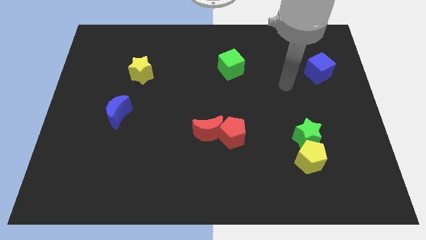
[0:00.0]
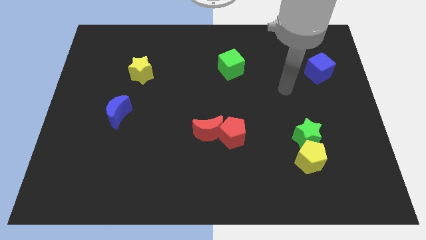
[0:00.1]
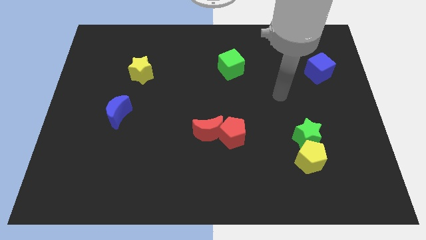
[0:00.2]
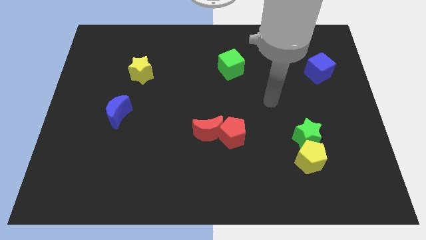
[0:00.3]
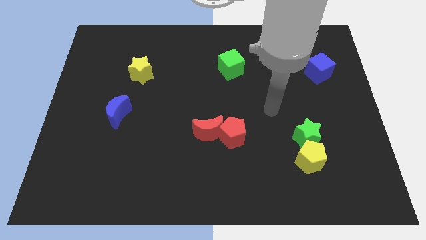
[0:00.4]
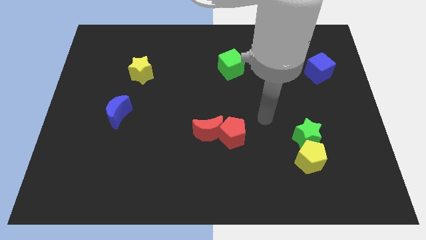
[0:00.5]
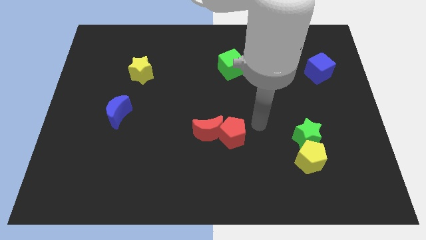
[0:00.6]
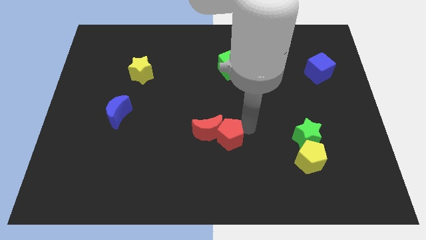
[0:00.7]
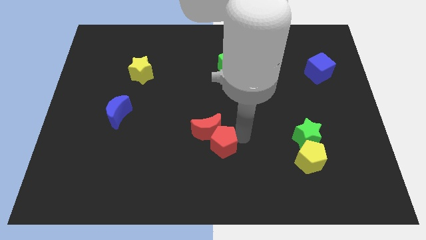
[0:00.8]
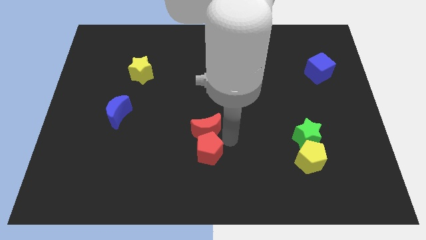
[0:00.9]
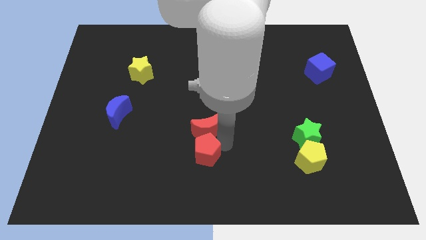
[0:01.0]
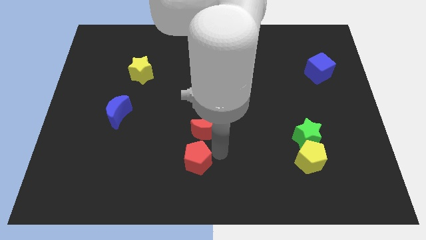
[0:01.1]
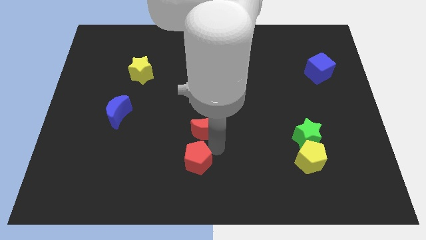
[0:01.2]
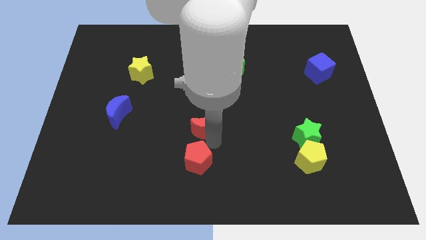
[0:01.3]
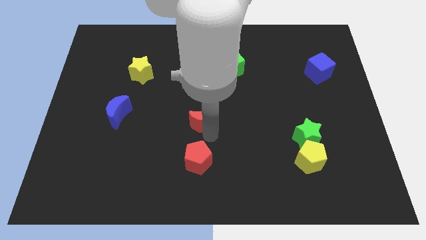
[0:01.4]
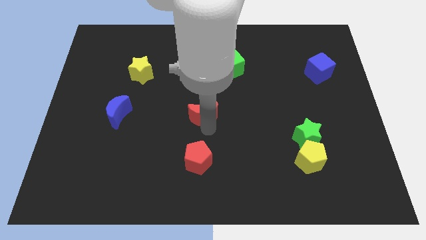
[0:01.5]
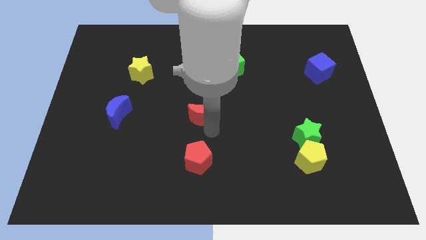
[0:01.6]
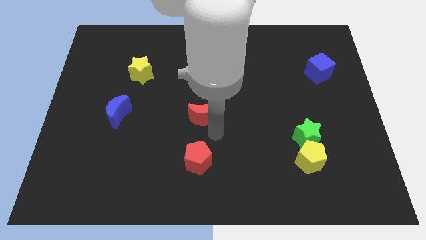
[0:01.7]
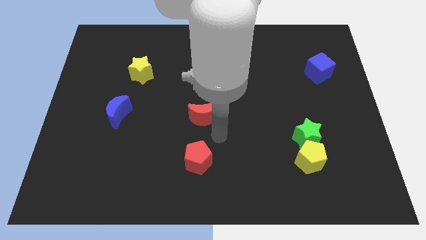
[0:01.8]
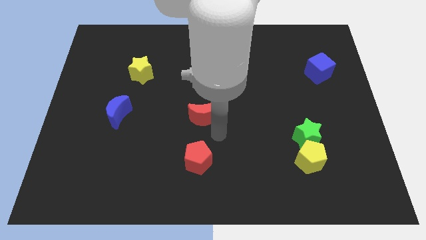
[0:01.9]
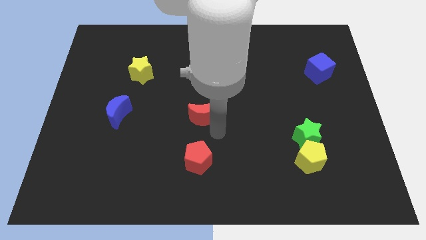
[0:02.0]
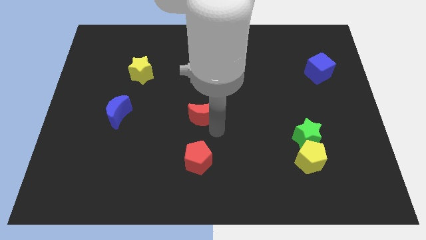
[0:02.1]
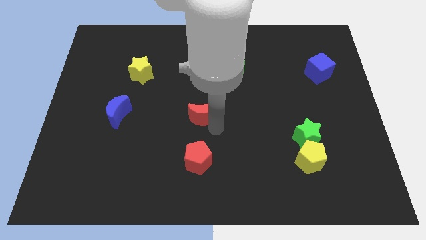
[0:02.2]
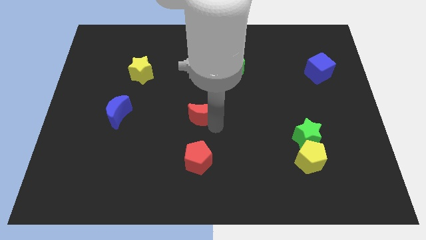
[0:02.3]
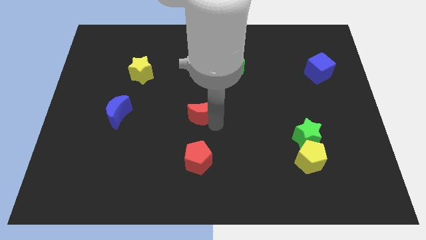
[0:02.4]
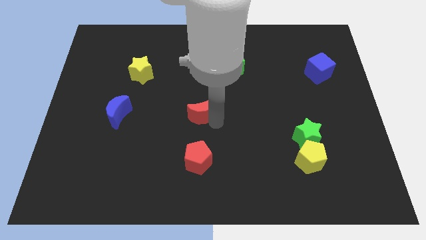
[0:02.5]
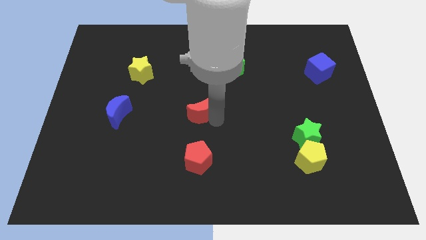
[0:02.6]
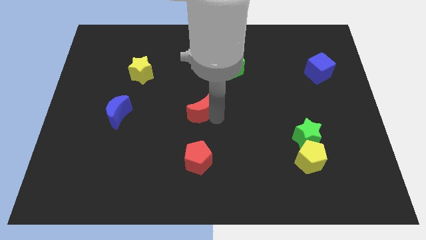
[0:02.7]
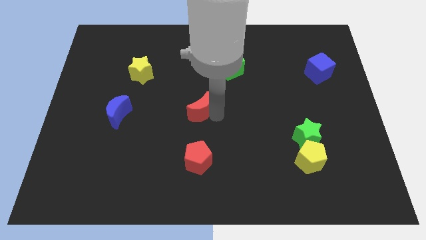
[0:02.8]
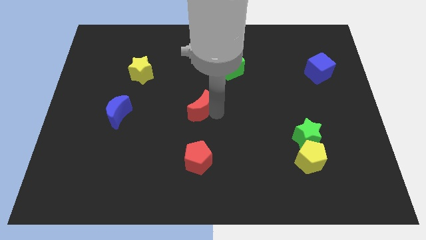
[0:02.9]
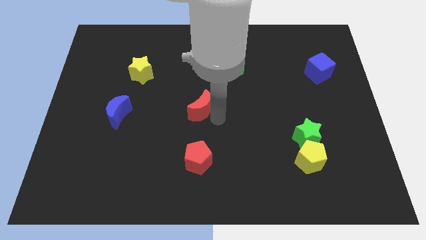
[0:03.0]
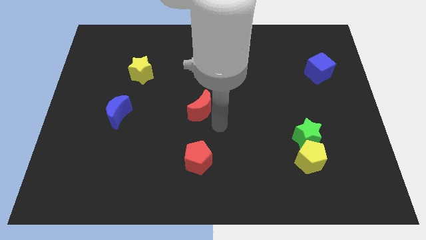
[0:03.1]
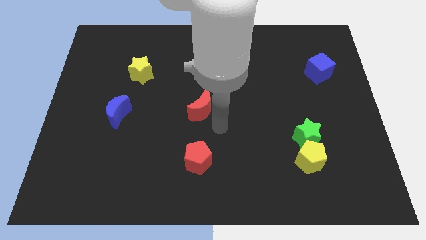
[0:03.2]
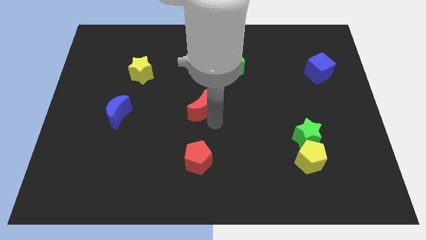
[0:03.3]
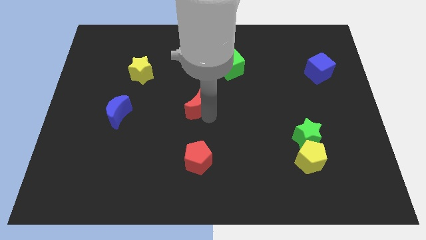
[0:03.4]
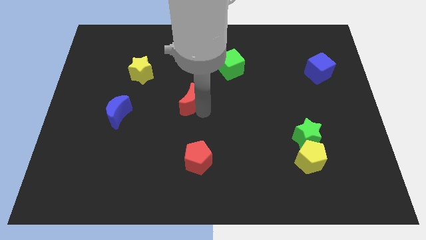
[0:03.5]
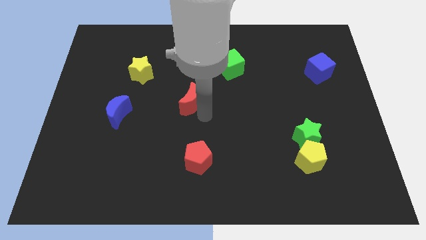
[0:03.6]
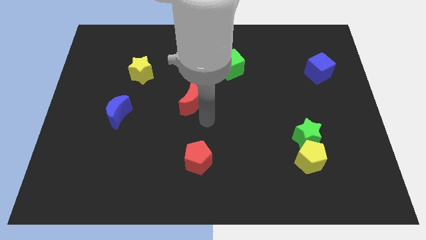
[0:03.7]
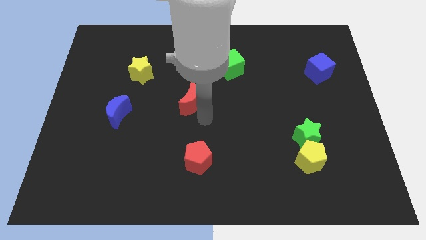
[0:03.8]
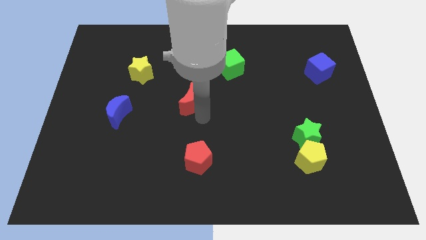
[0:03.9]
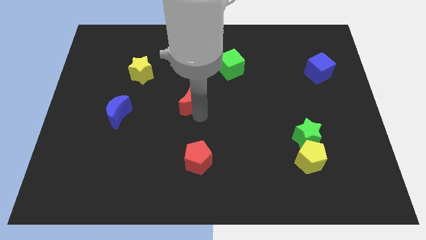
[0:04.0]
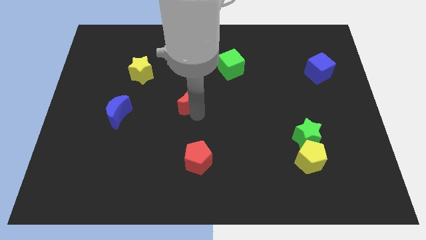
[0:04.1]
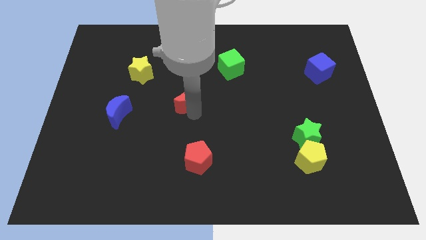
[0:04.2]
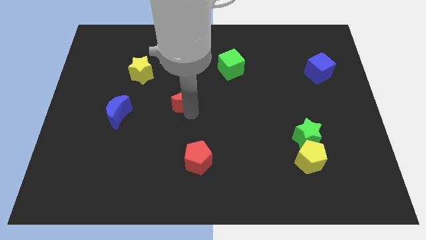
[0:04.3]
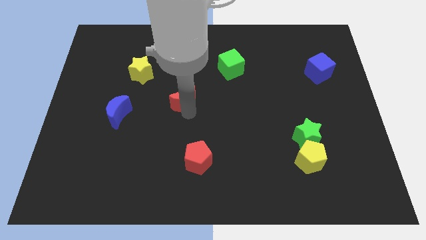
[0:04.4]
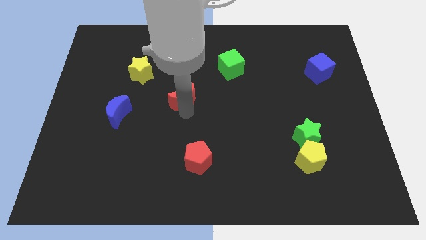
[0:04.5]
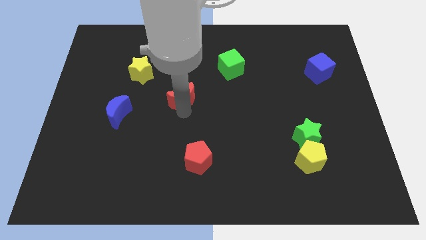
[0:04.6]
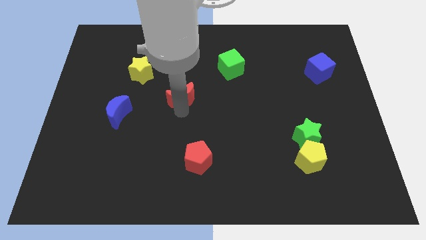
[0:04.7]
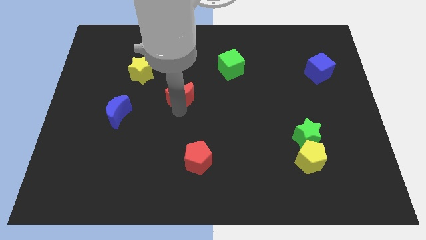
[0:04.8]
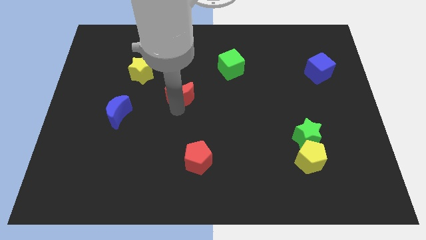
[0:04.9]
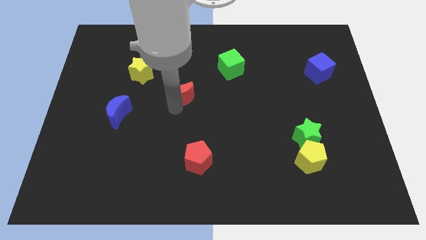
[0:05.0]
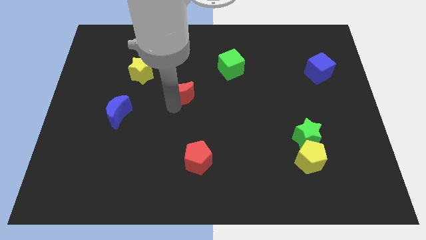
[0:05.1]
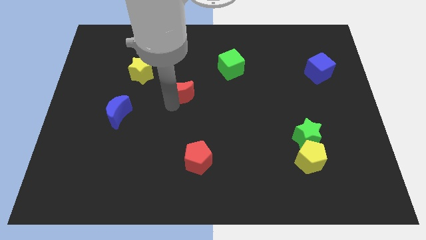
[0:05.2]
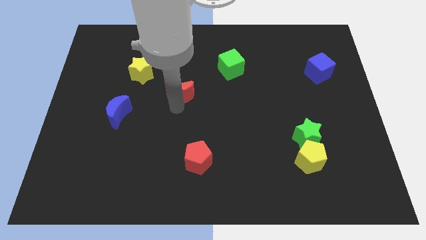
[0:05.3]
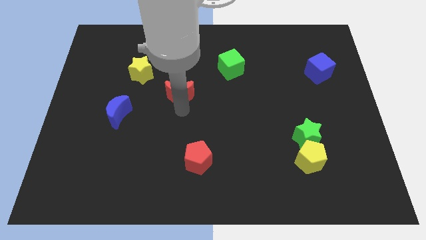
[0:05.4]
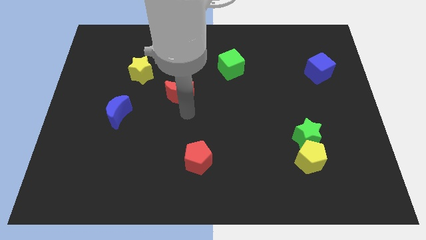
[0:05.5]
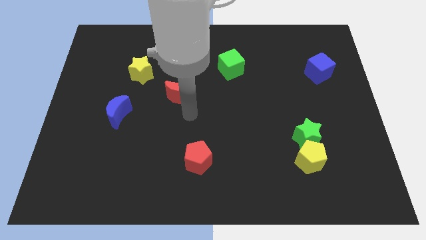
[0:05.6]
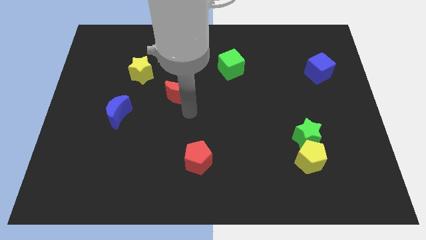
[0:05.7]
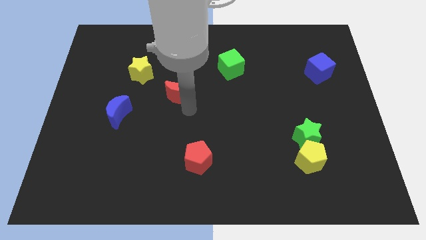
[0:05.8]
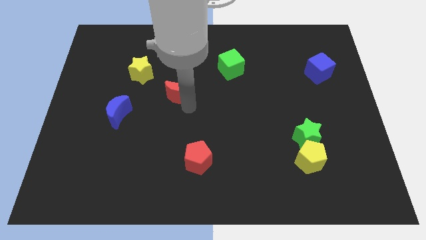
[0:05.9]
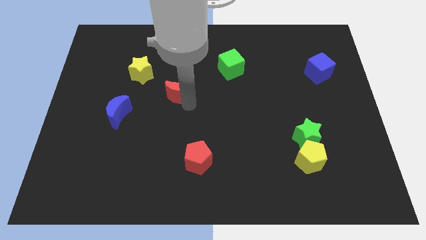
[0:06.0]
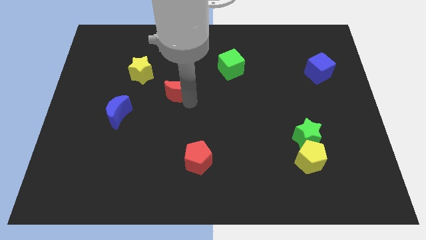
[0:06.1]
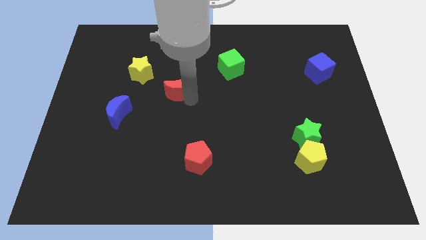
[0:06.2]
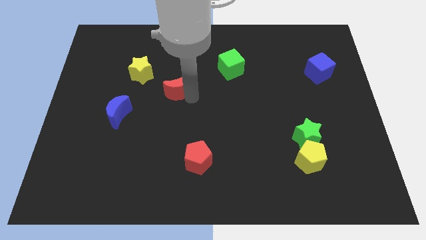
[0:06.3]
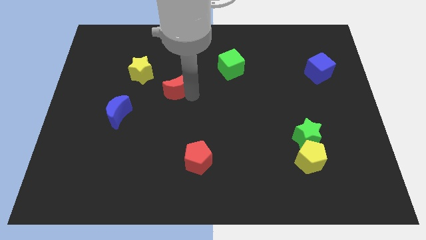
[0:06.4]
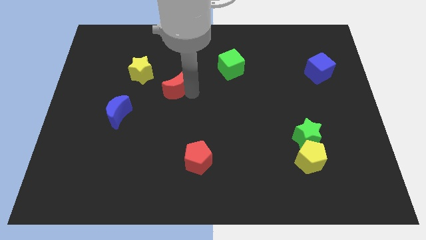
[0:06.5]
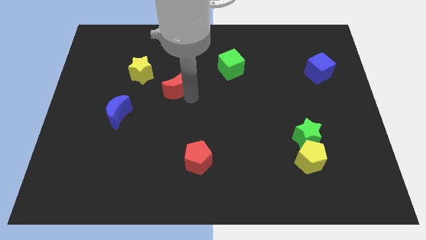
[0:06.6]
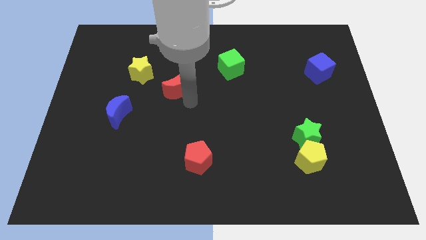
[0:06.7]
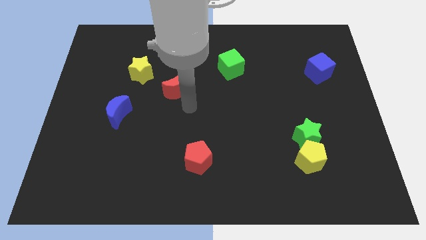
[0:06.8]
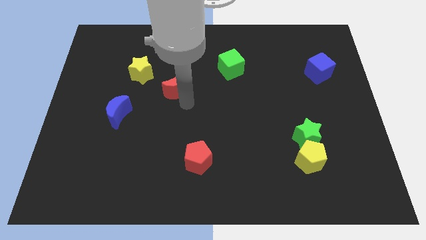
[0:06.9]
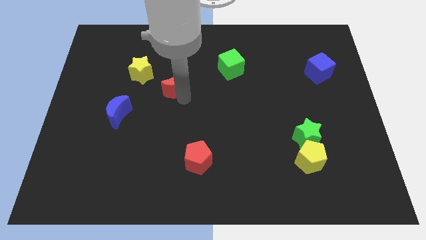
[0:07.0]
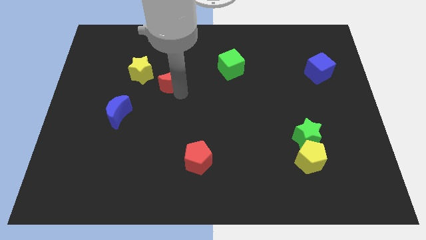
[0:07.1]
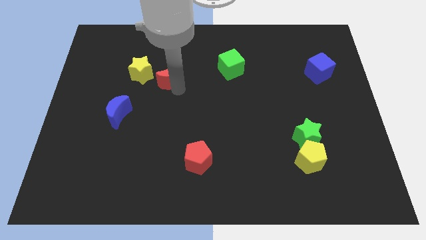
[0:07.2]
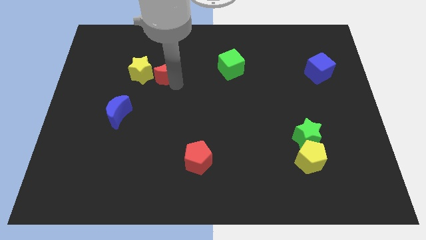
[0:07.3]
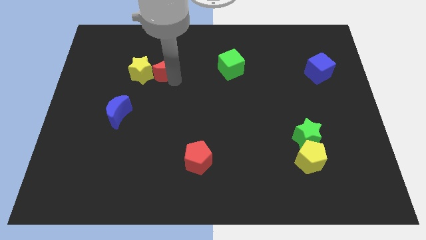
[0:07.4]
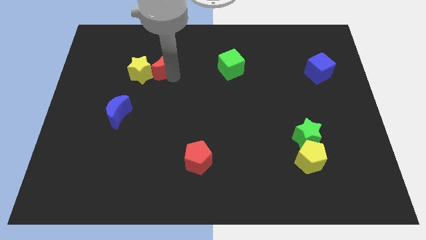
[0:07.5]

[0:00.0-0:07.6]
move the red moon upwards and then left

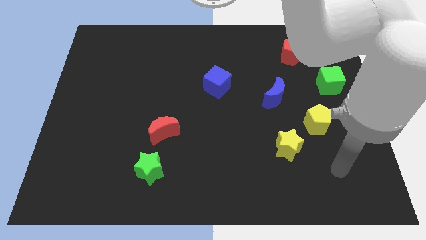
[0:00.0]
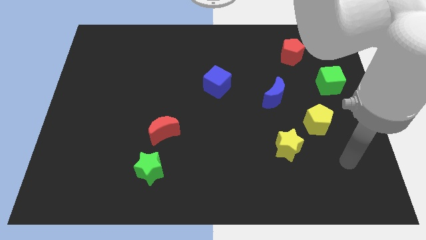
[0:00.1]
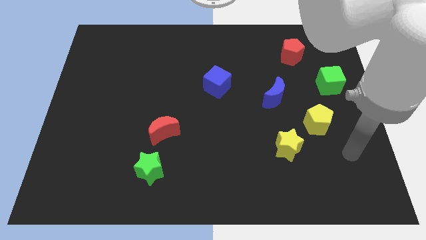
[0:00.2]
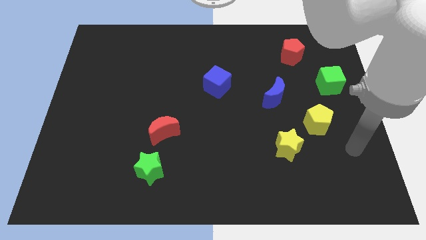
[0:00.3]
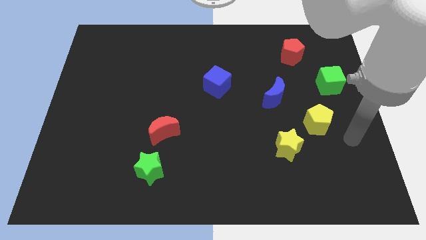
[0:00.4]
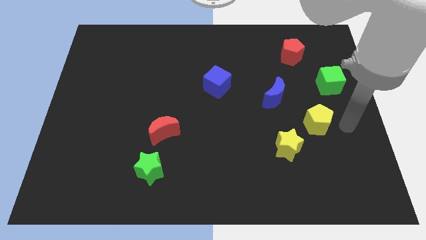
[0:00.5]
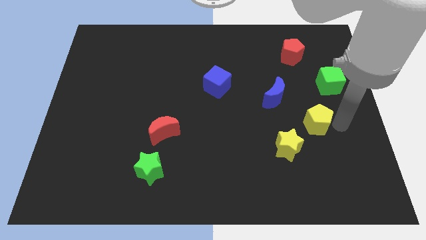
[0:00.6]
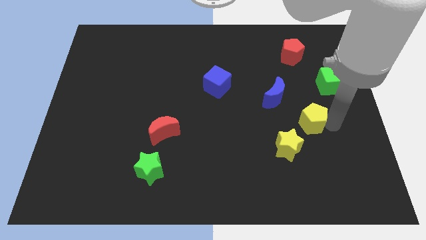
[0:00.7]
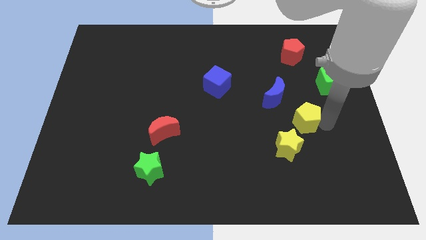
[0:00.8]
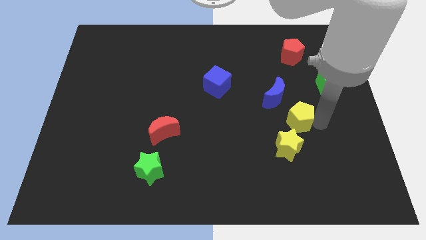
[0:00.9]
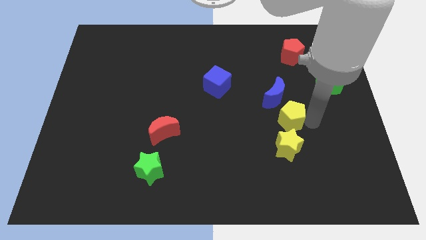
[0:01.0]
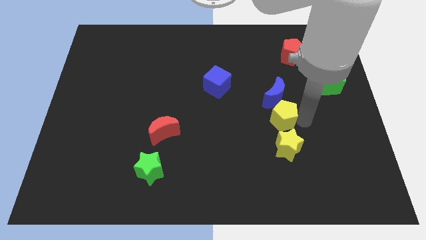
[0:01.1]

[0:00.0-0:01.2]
move the yellow pentagon left a little
